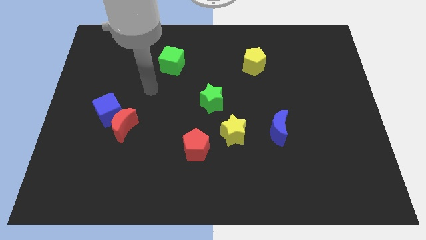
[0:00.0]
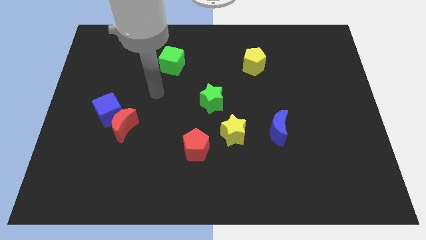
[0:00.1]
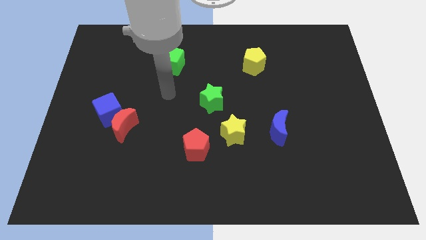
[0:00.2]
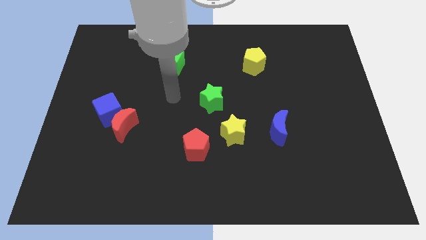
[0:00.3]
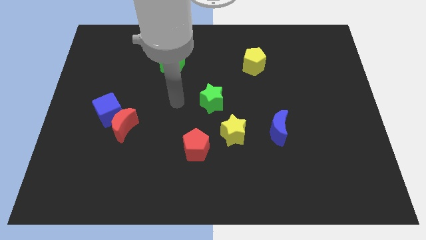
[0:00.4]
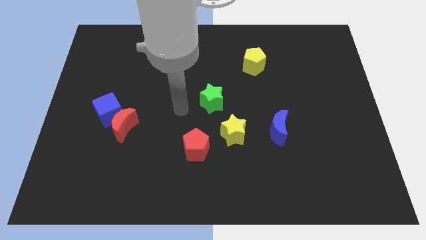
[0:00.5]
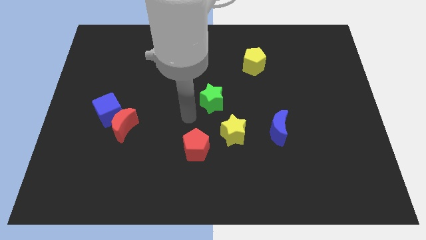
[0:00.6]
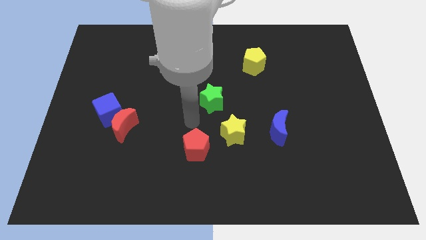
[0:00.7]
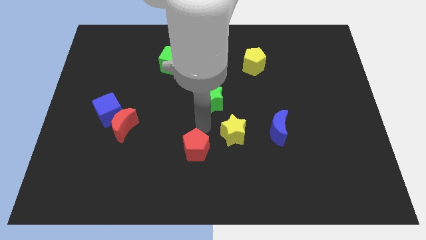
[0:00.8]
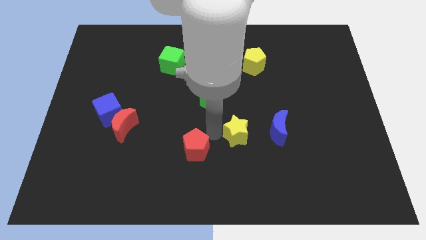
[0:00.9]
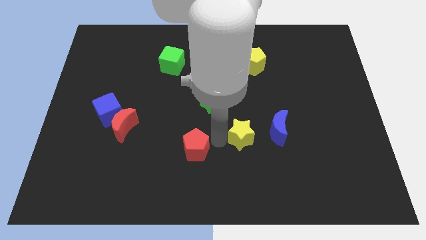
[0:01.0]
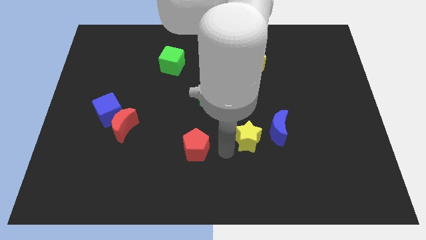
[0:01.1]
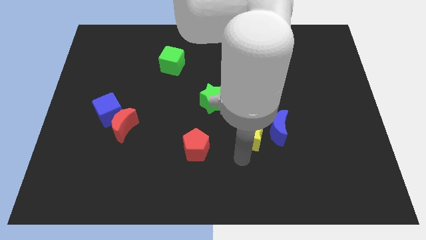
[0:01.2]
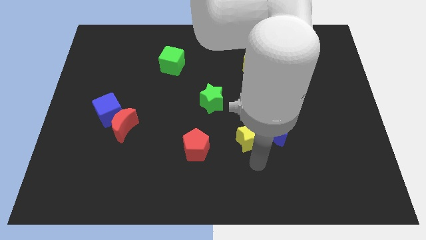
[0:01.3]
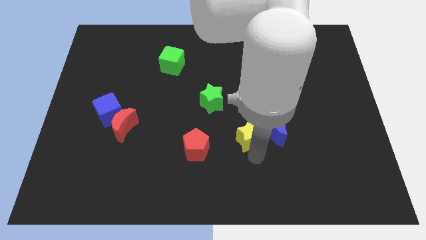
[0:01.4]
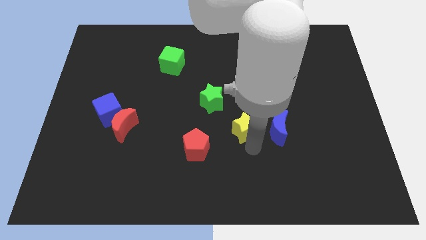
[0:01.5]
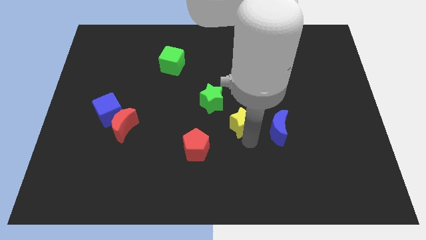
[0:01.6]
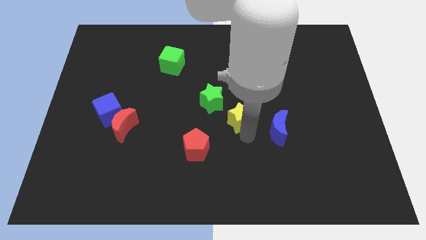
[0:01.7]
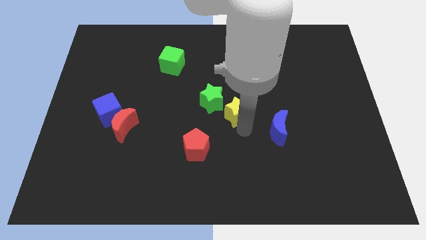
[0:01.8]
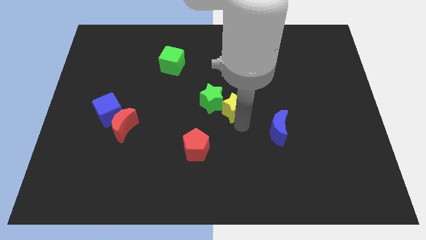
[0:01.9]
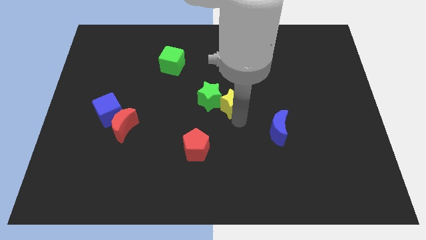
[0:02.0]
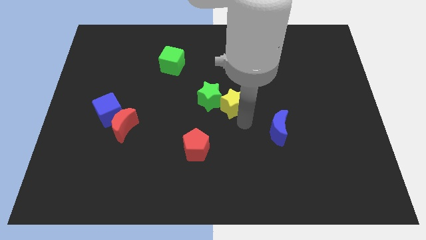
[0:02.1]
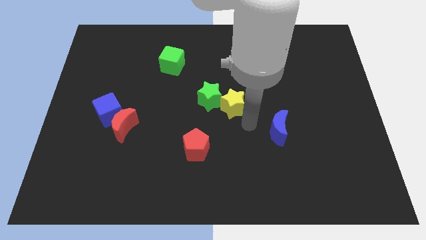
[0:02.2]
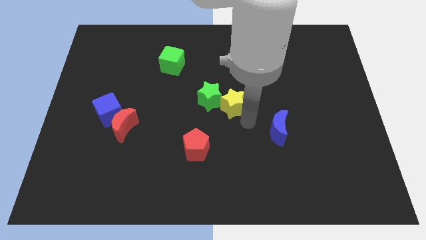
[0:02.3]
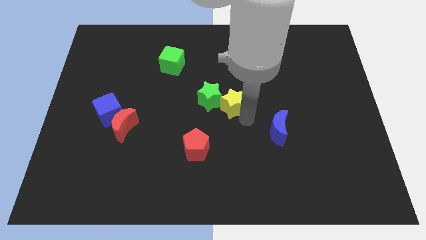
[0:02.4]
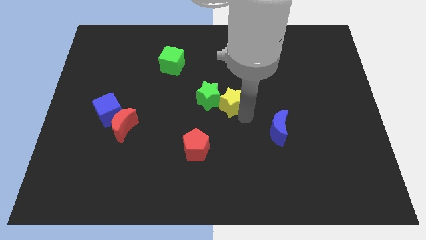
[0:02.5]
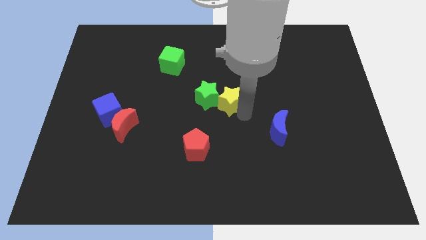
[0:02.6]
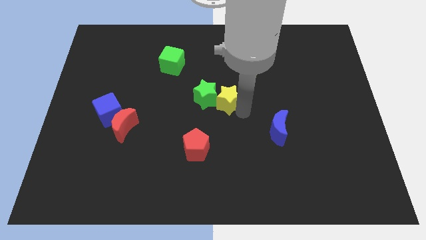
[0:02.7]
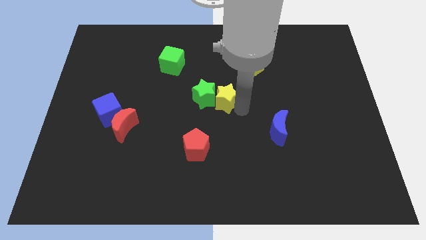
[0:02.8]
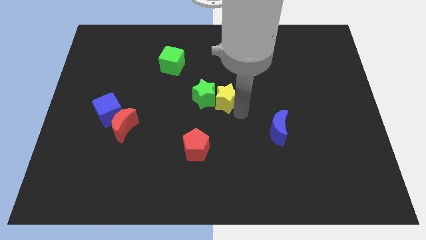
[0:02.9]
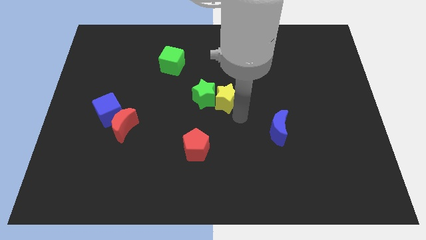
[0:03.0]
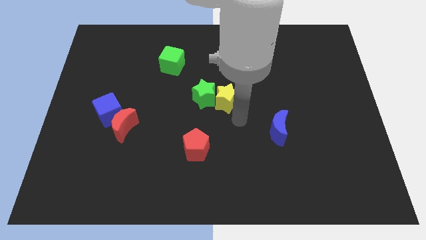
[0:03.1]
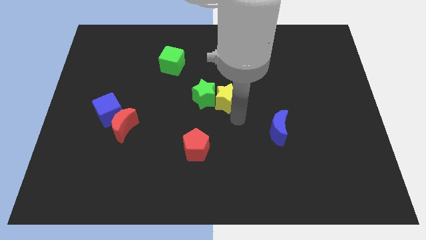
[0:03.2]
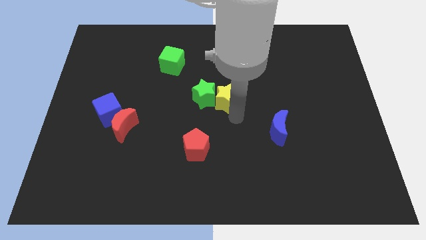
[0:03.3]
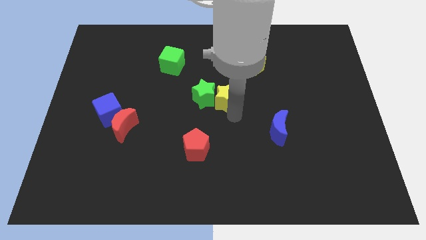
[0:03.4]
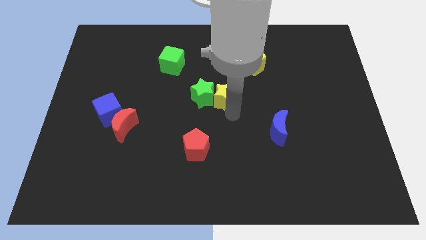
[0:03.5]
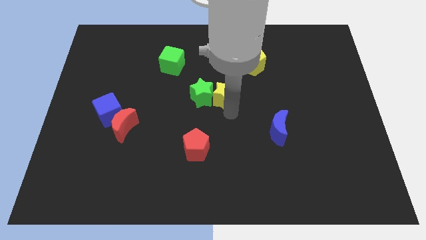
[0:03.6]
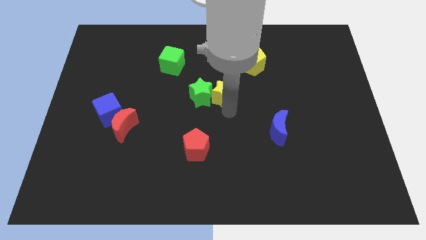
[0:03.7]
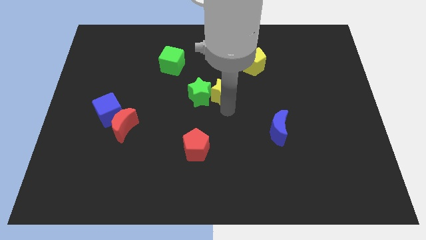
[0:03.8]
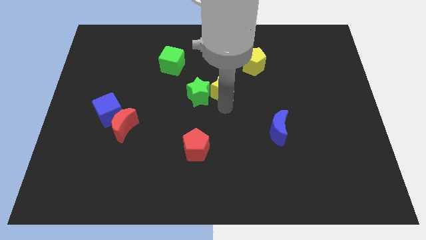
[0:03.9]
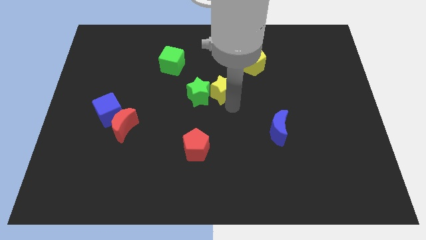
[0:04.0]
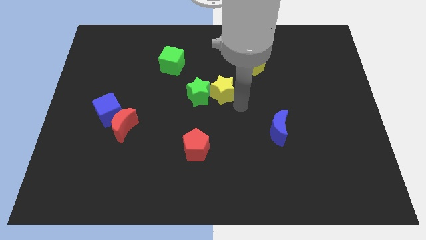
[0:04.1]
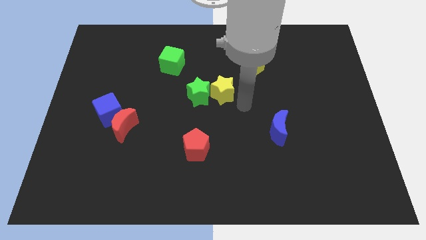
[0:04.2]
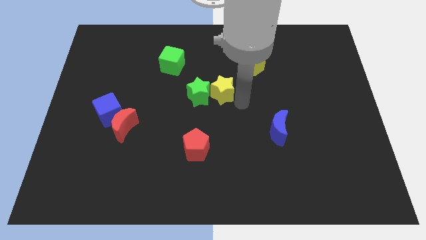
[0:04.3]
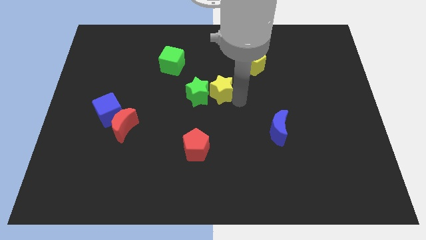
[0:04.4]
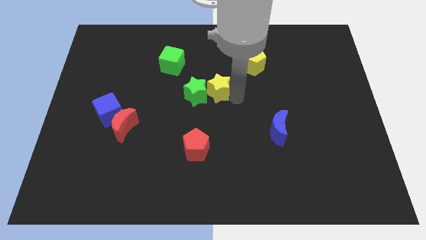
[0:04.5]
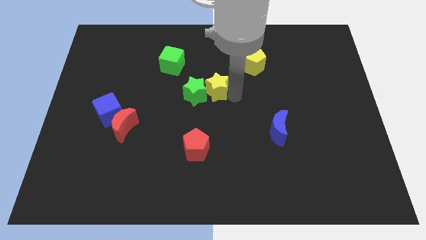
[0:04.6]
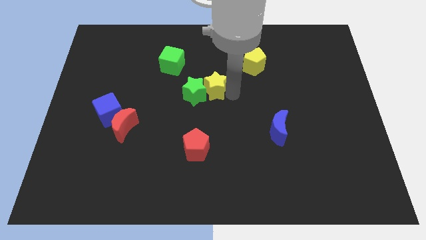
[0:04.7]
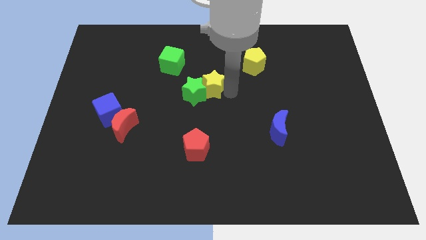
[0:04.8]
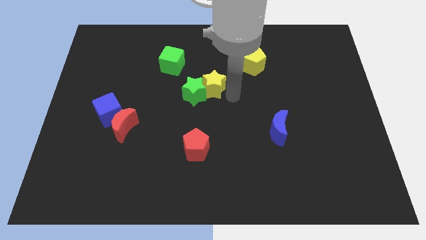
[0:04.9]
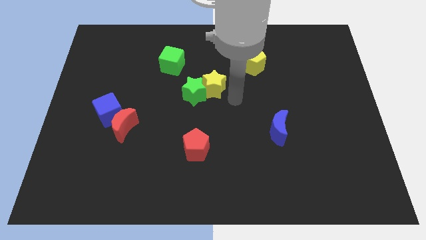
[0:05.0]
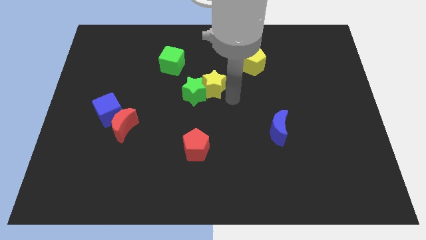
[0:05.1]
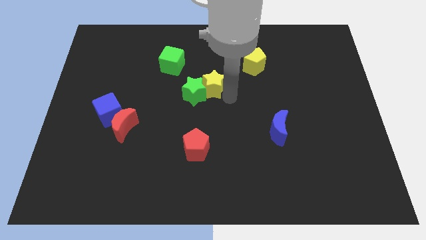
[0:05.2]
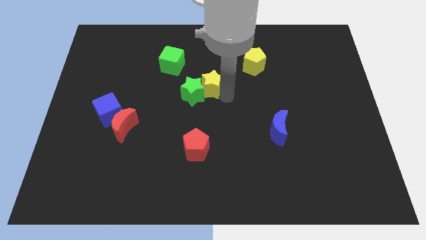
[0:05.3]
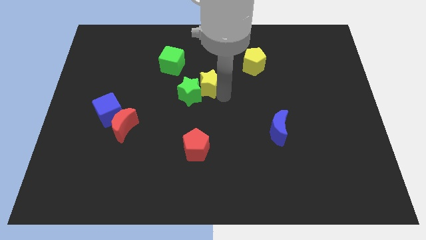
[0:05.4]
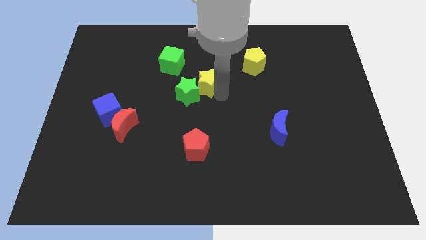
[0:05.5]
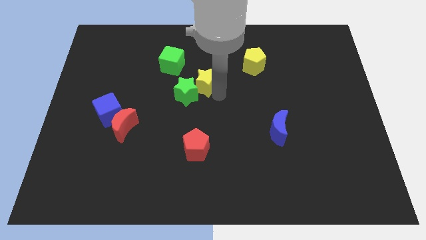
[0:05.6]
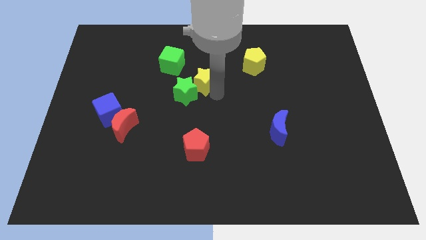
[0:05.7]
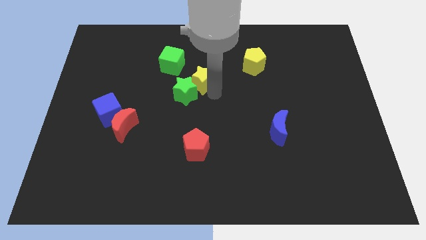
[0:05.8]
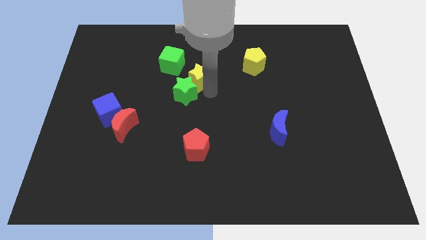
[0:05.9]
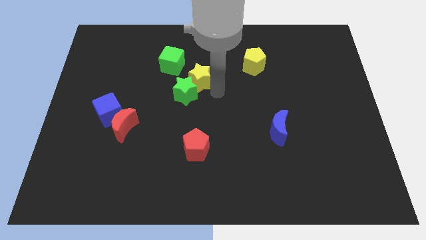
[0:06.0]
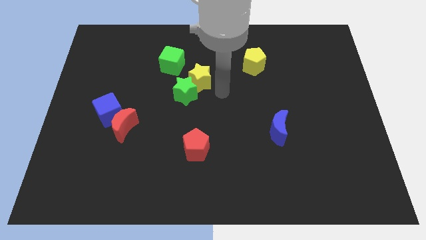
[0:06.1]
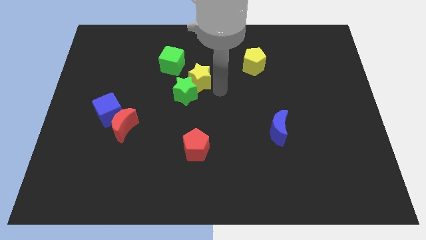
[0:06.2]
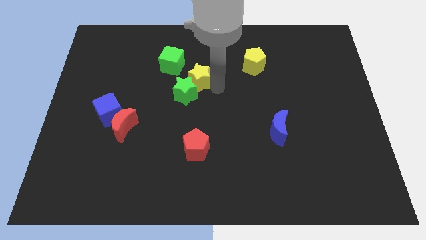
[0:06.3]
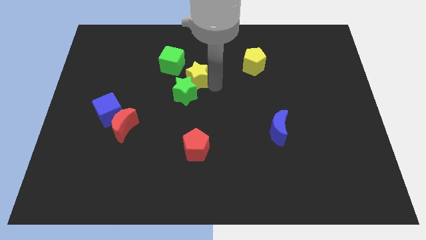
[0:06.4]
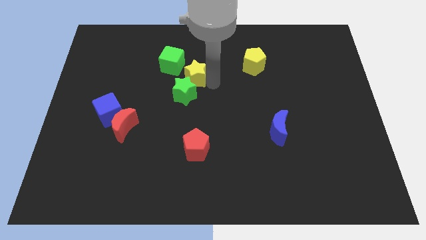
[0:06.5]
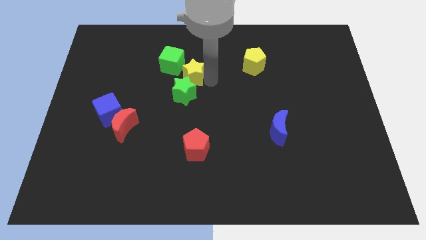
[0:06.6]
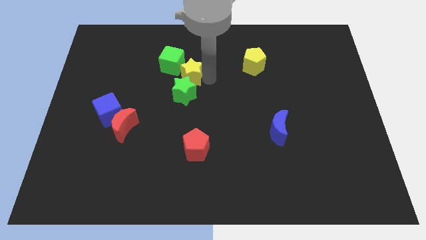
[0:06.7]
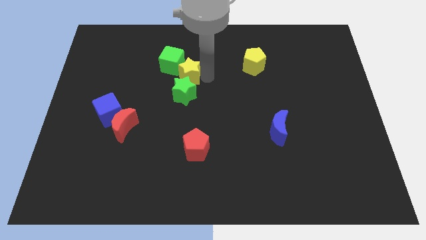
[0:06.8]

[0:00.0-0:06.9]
push the yellow star towards the green cube
